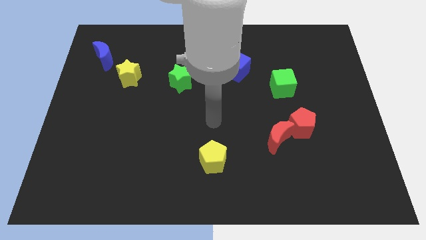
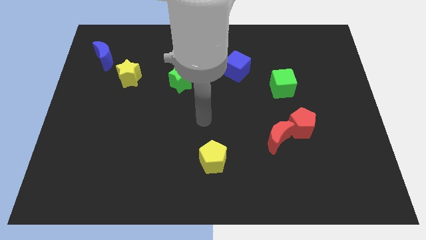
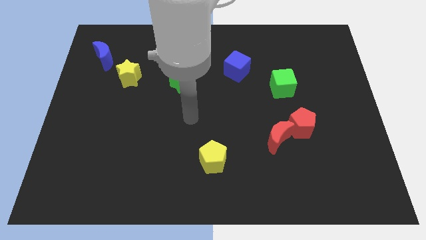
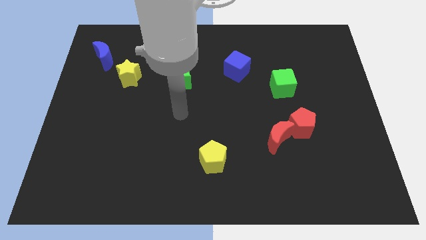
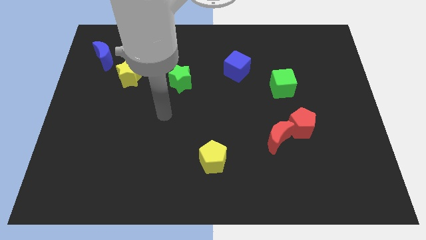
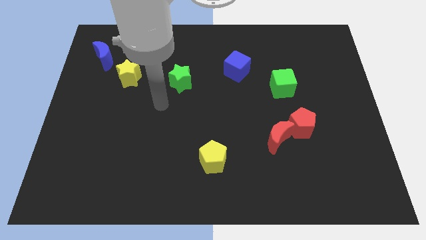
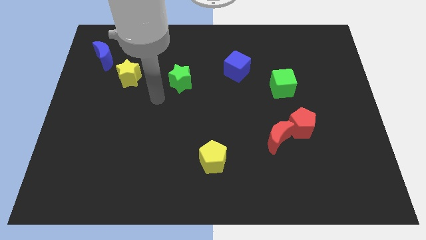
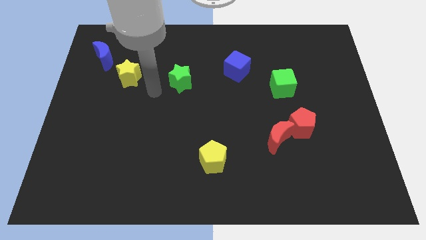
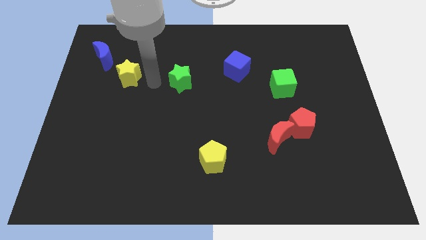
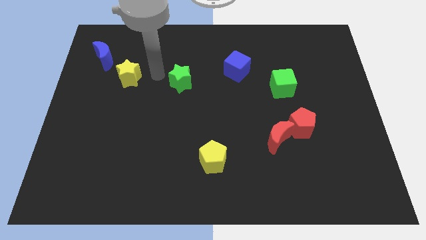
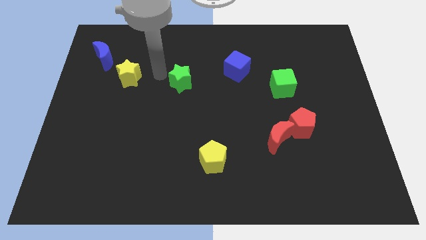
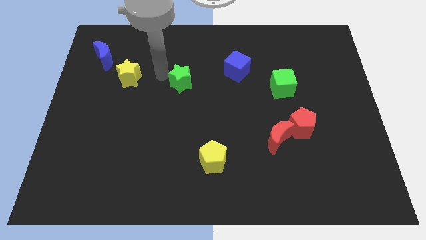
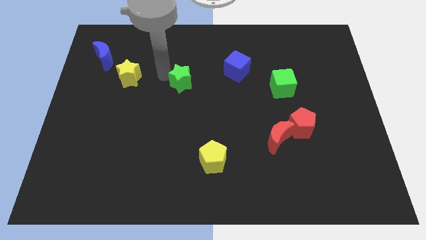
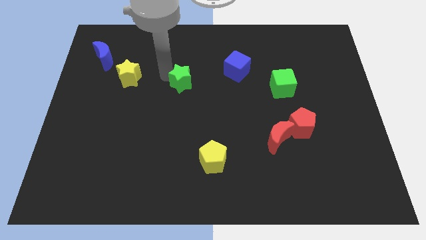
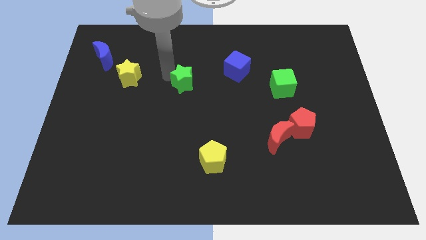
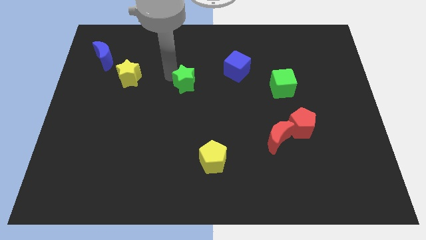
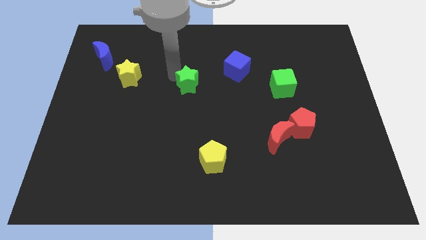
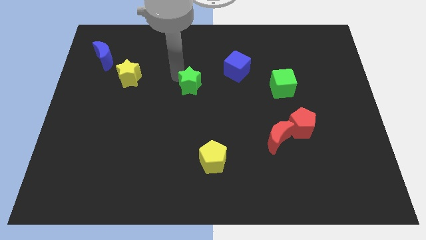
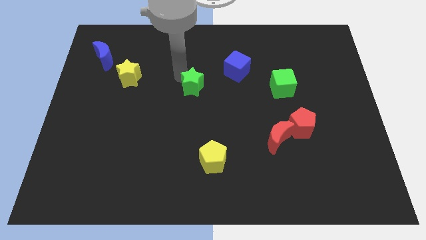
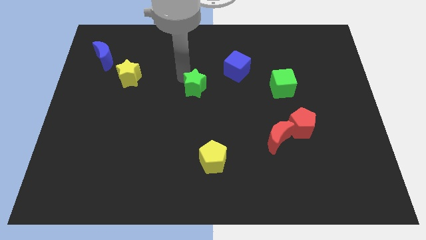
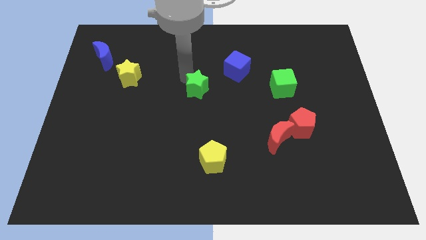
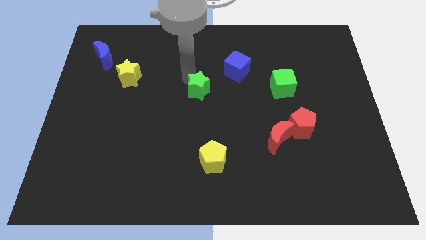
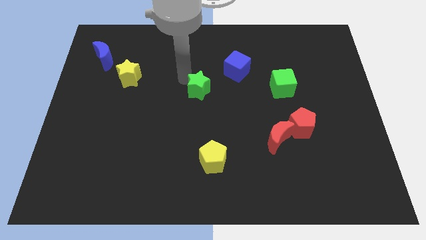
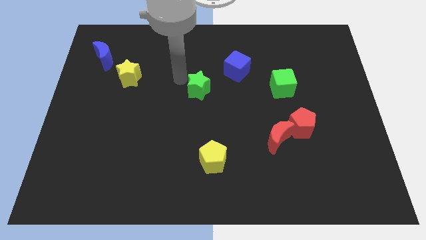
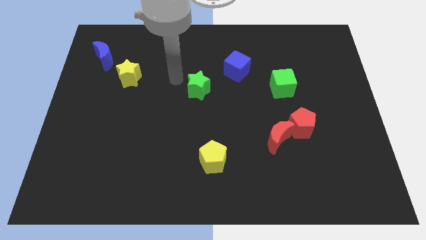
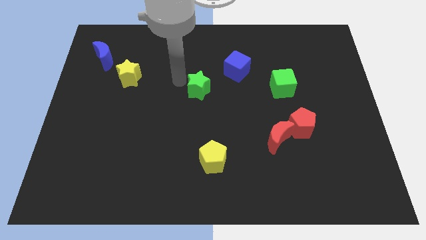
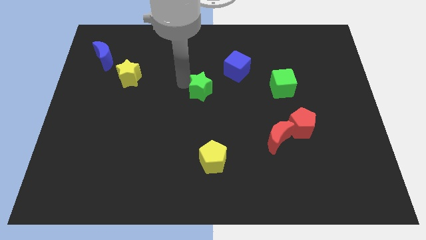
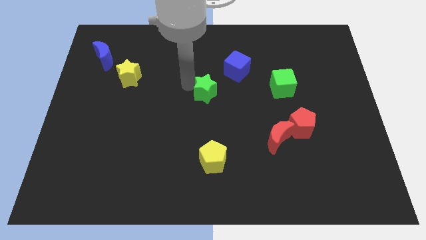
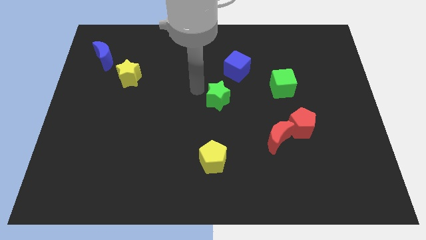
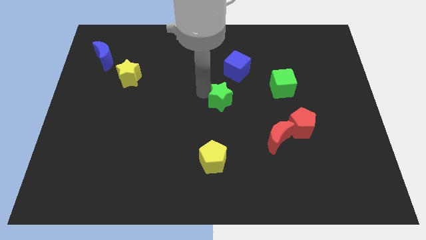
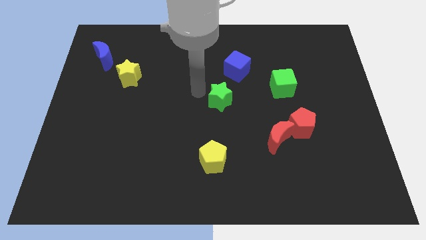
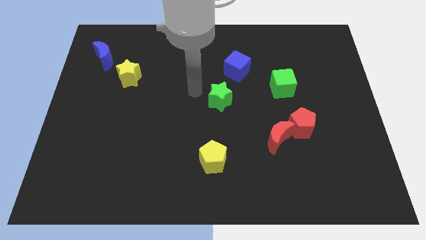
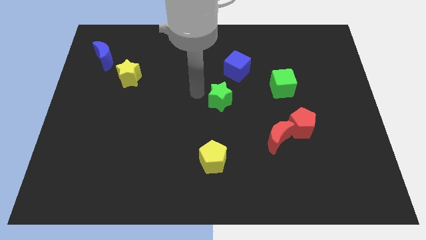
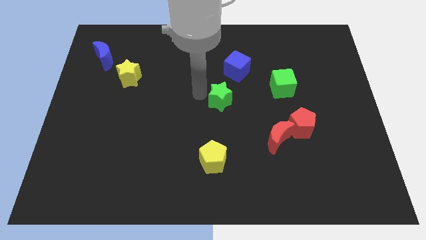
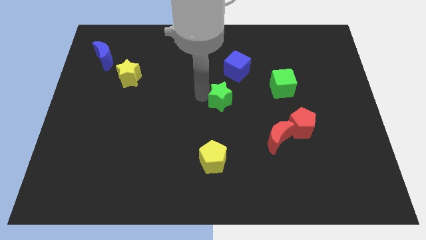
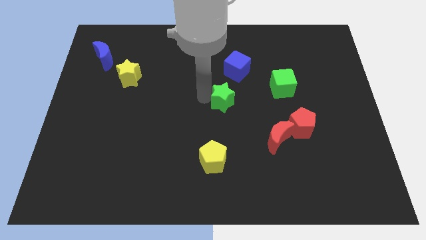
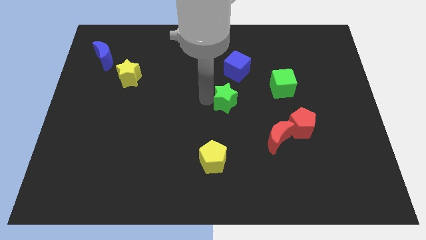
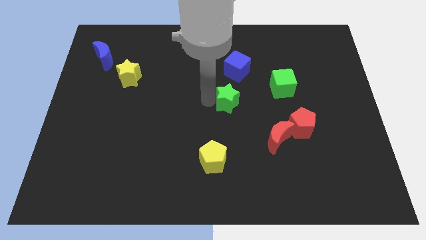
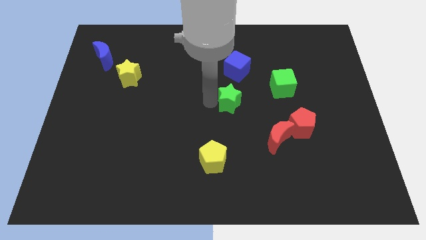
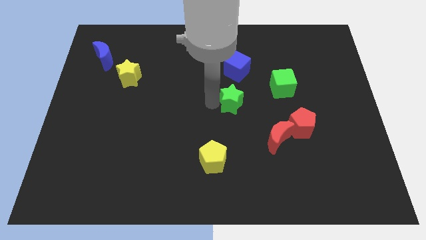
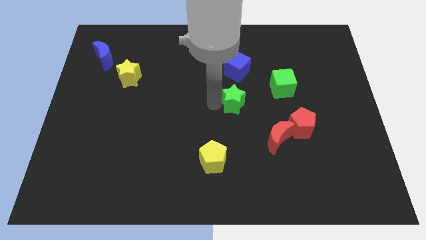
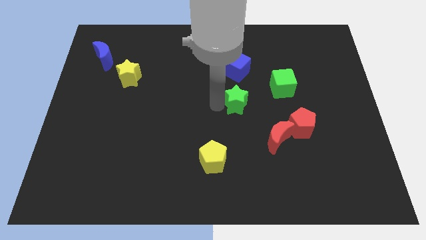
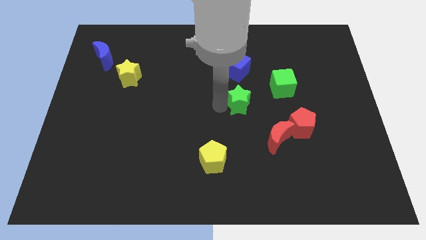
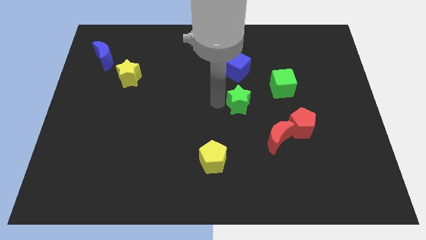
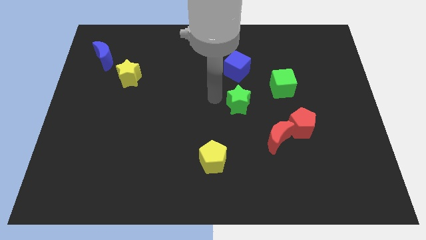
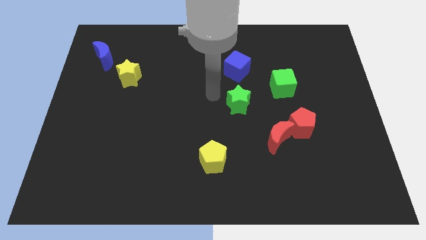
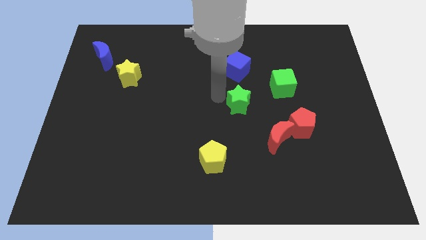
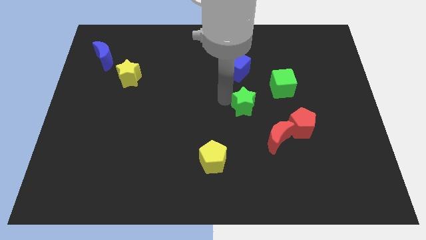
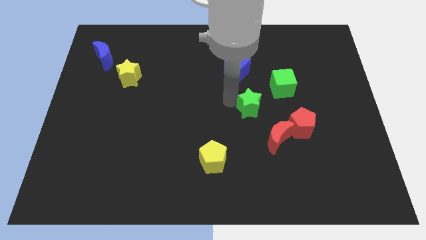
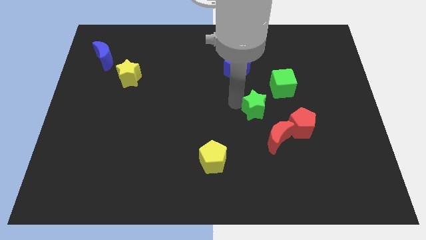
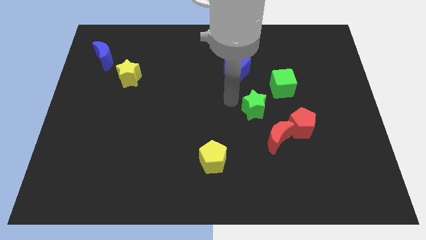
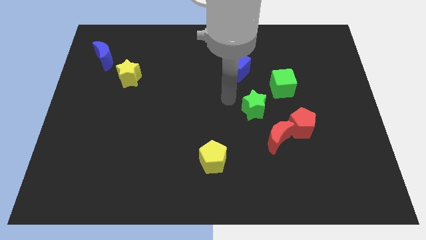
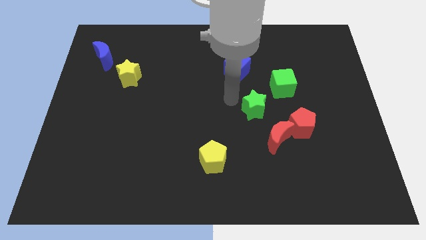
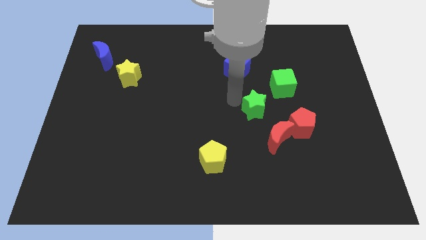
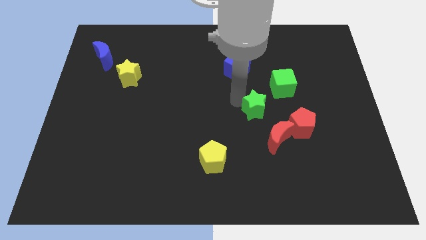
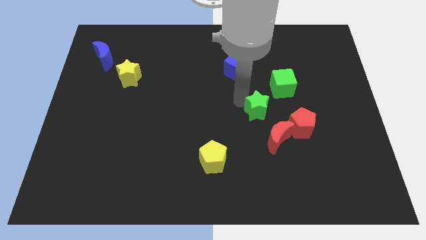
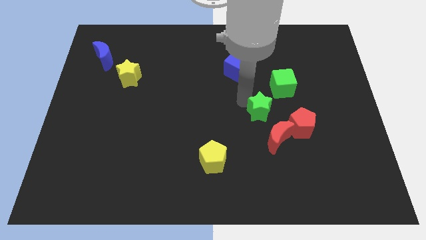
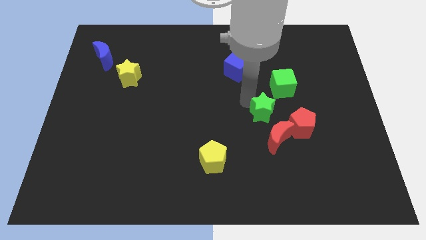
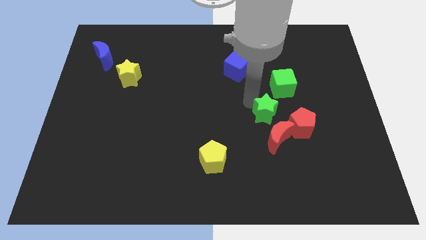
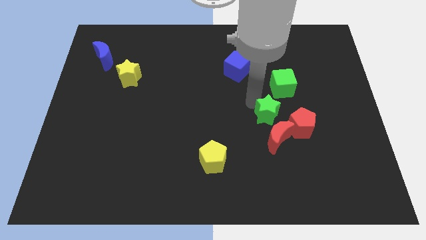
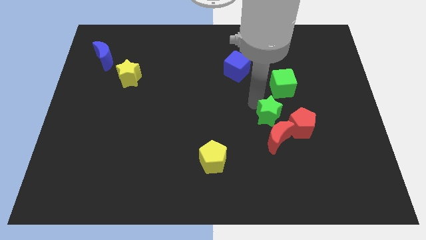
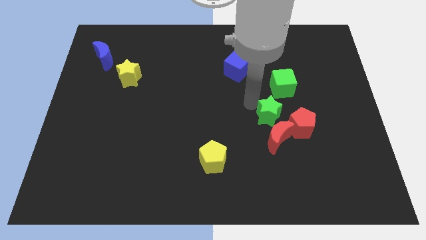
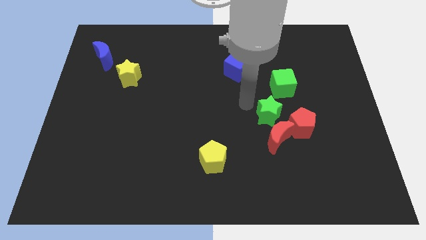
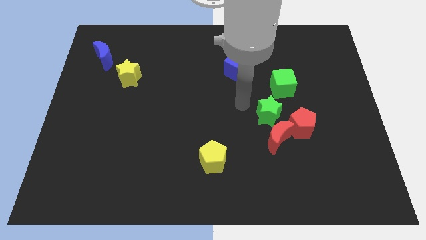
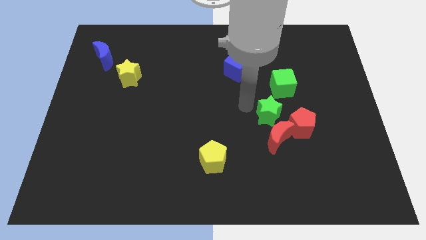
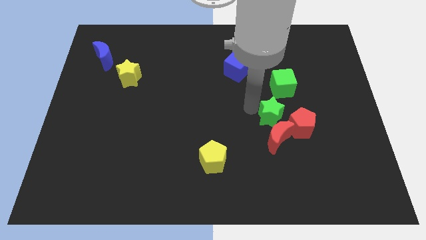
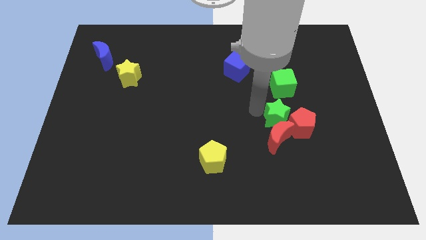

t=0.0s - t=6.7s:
slide the green star to the red pentagon
